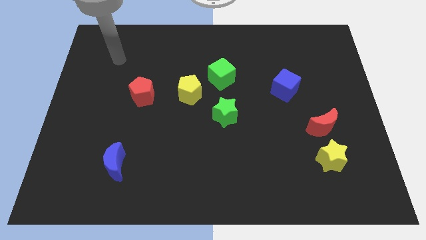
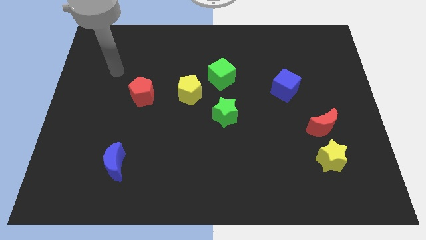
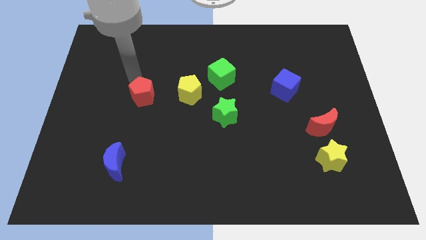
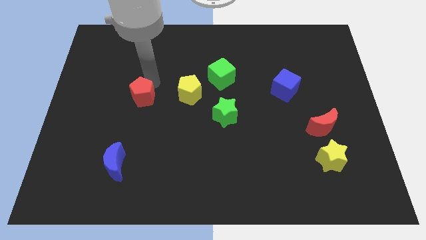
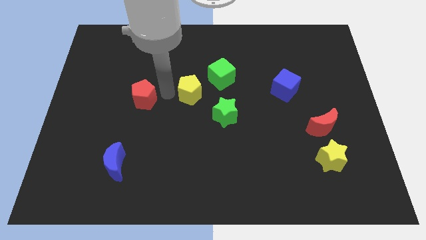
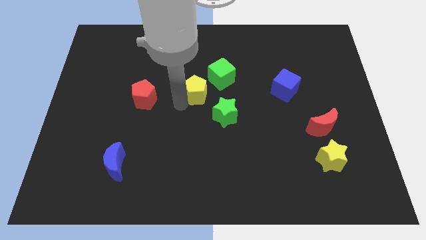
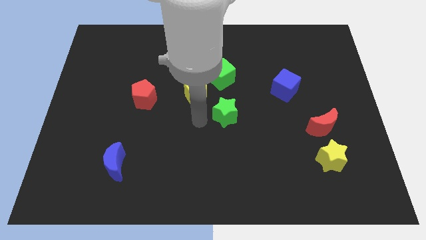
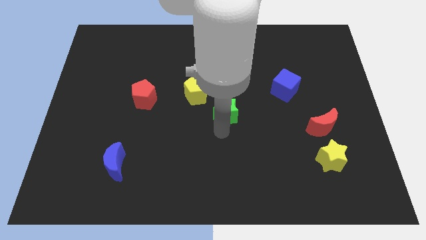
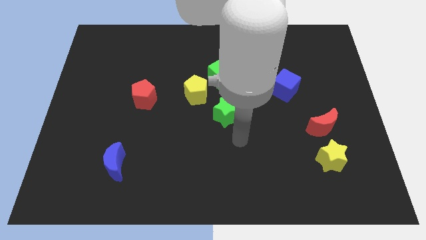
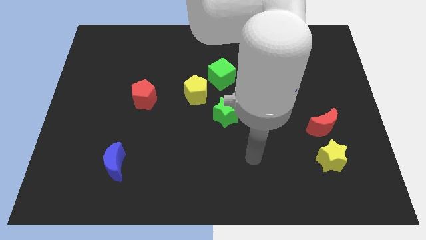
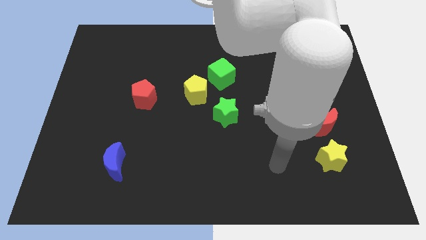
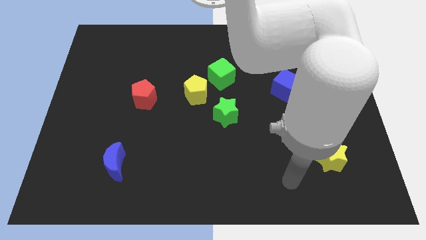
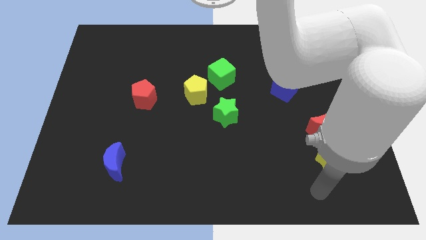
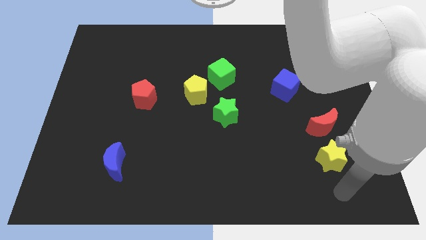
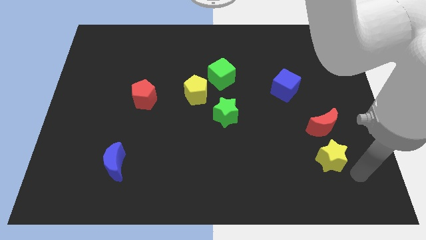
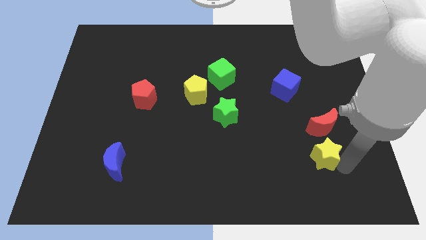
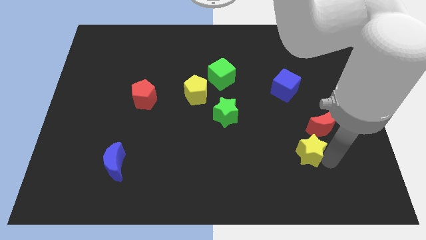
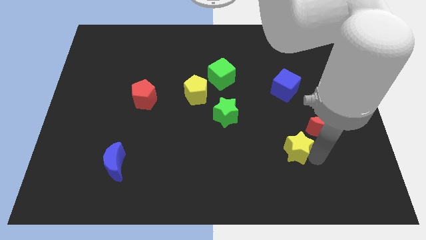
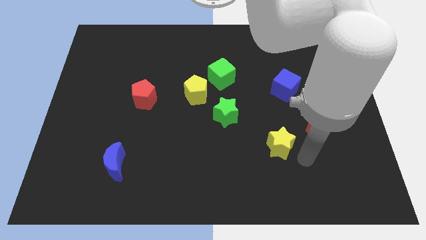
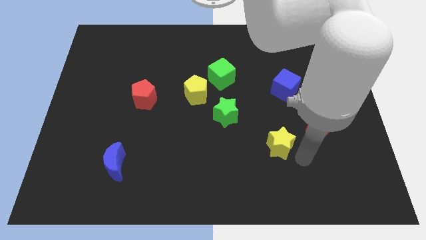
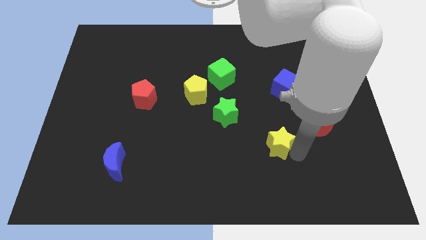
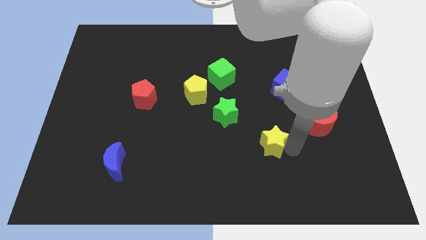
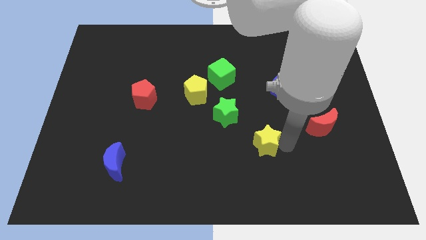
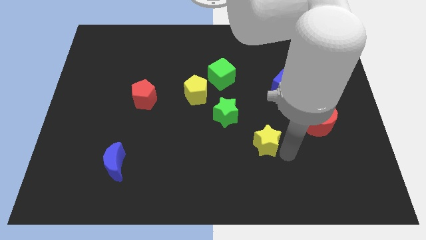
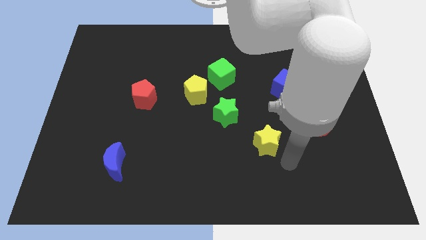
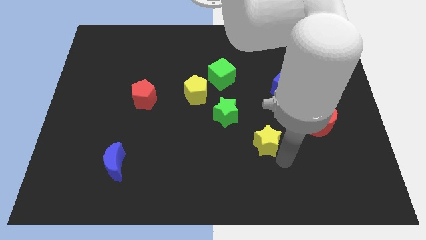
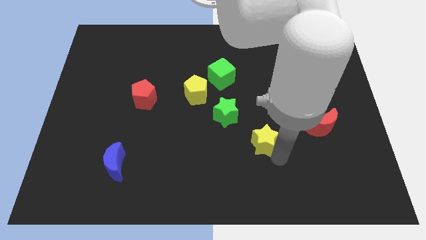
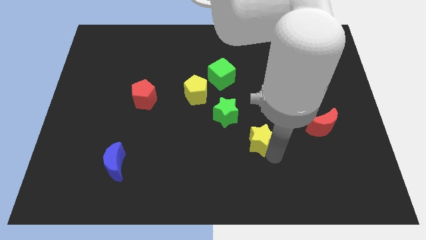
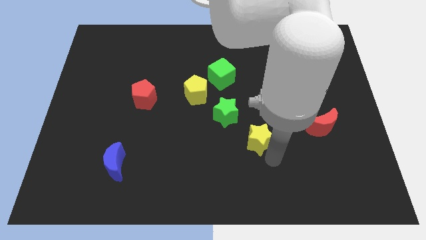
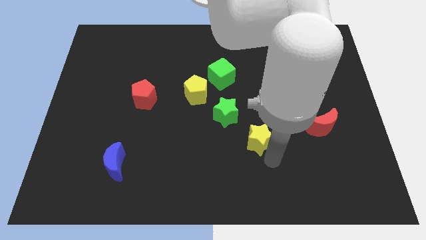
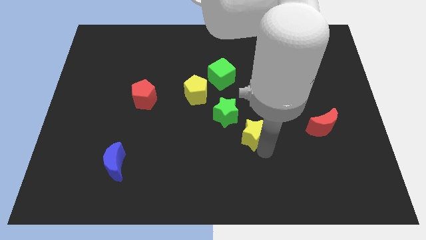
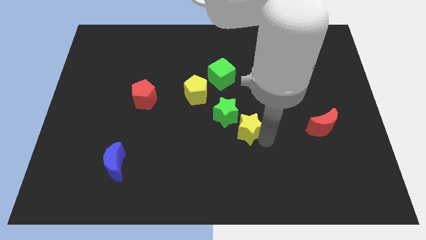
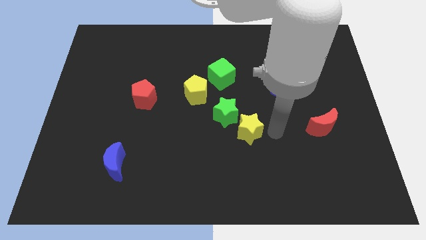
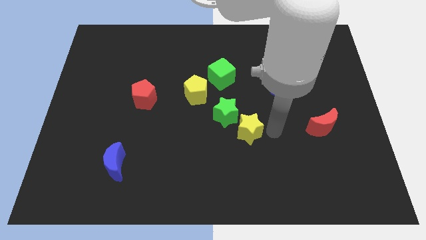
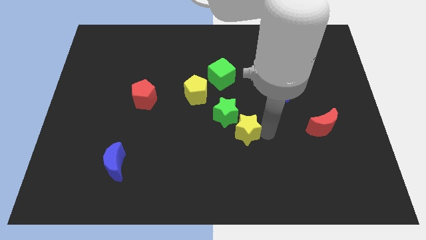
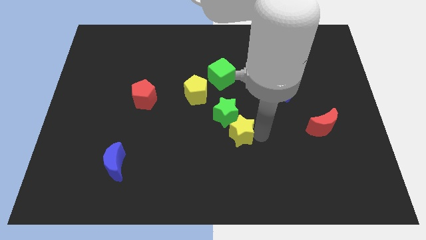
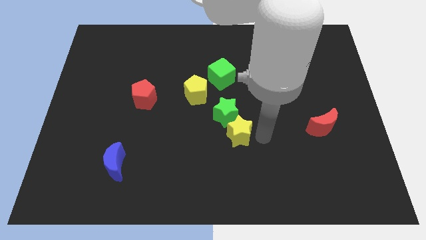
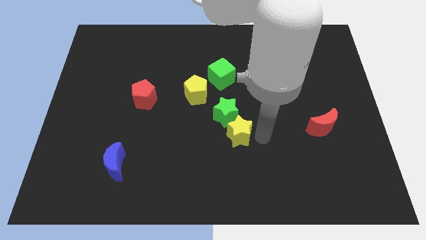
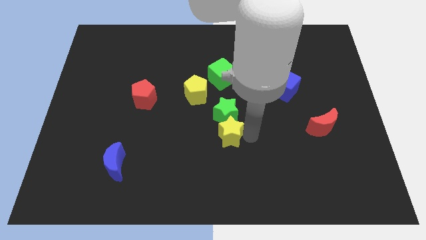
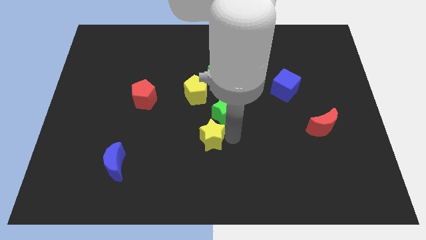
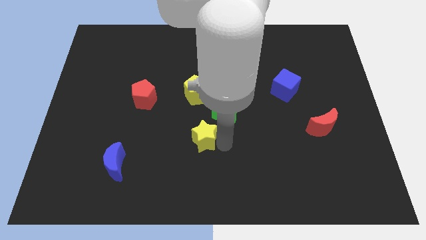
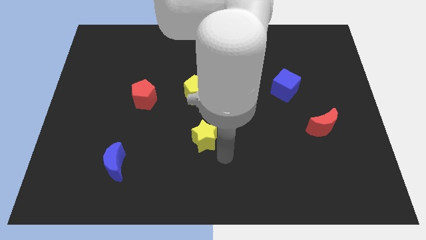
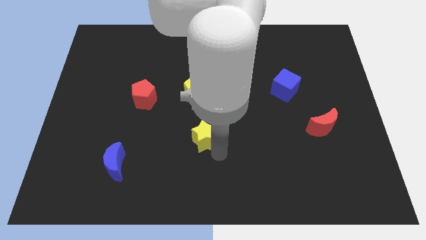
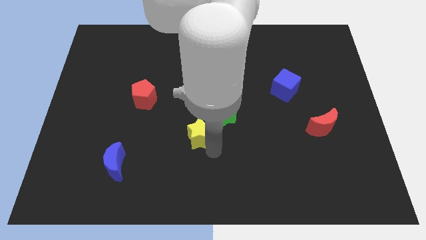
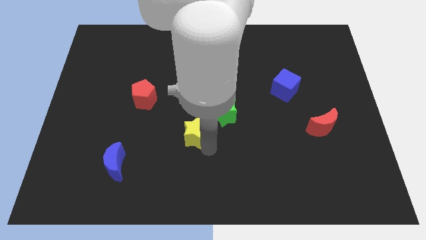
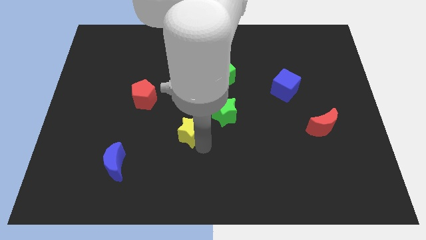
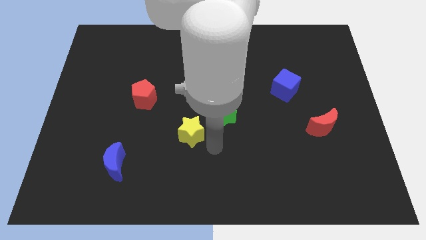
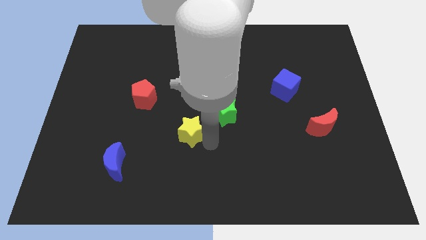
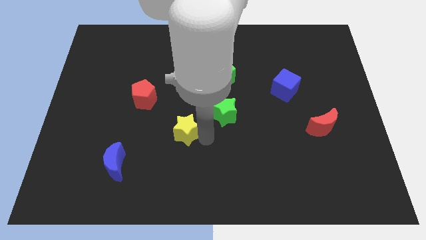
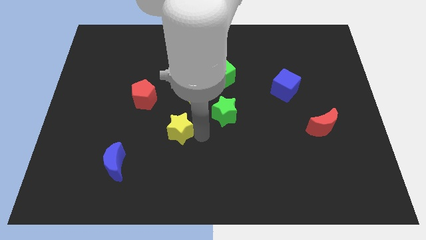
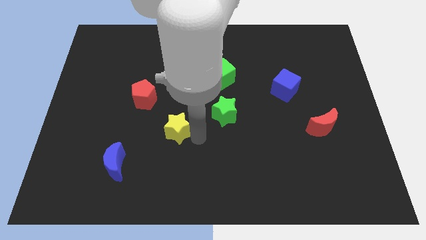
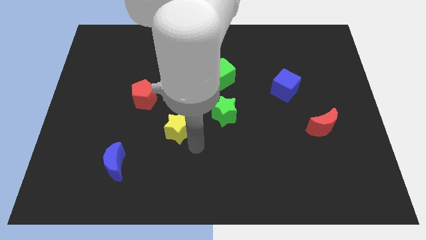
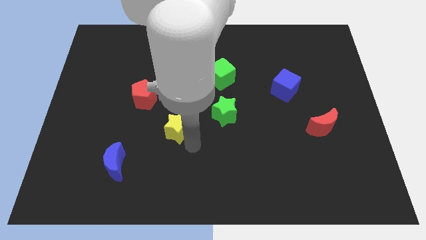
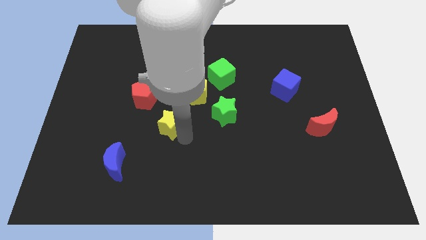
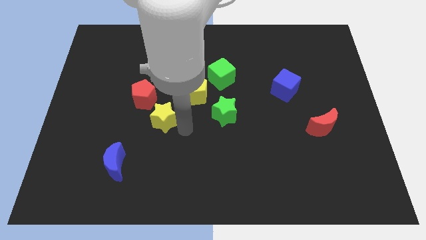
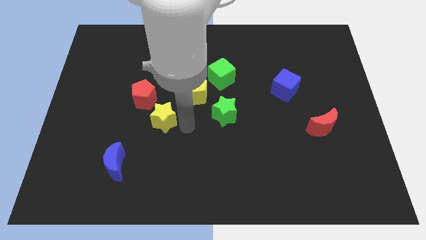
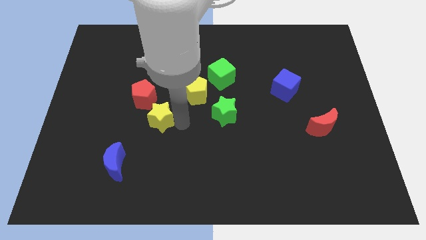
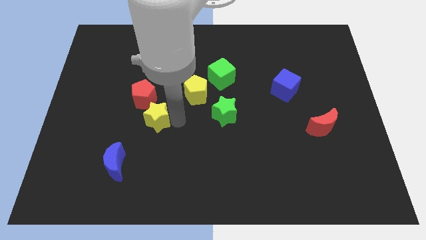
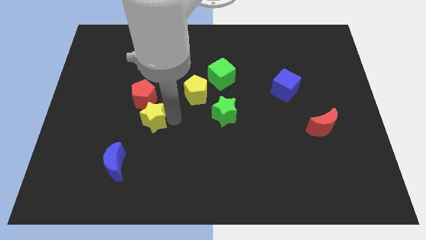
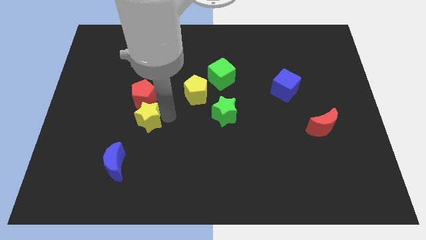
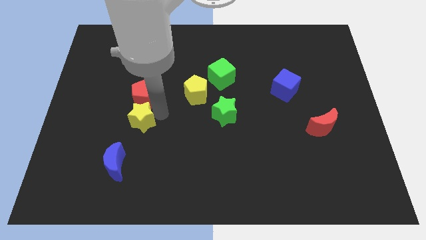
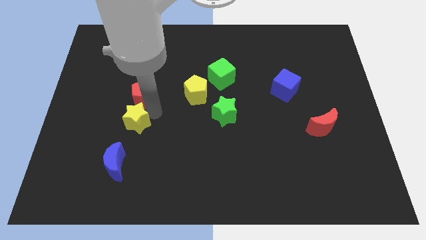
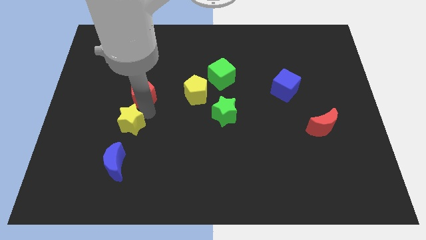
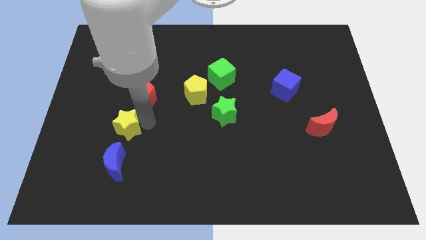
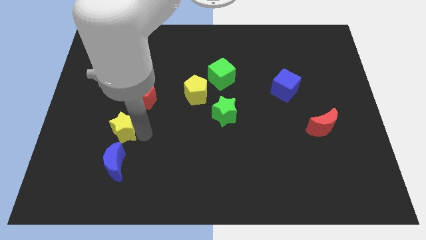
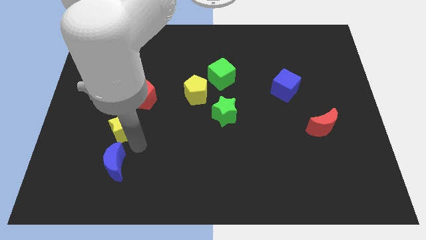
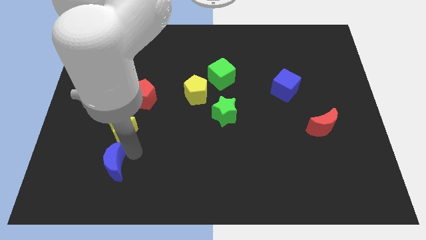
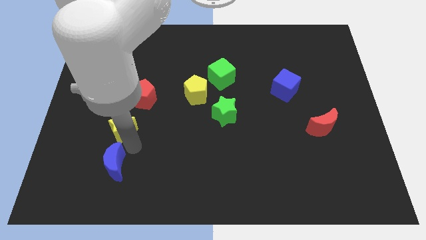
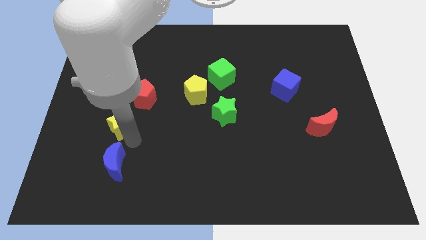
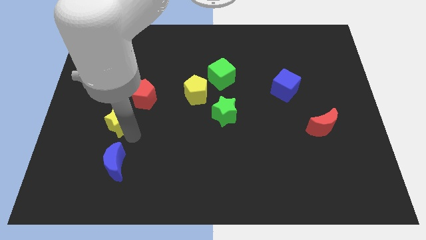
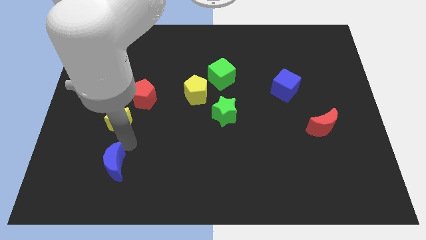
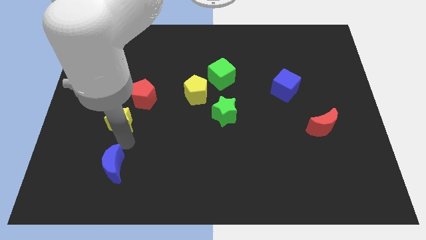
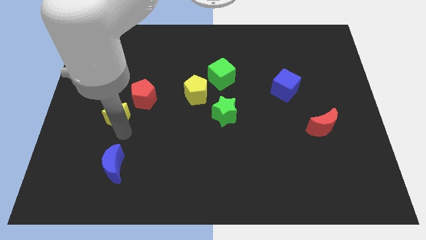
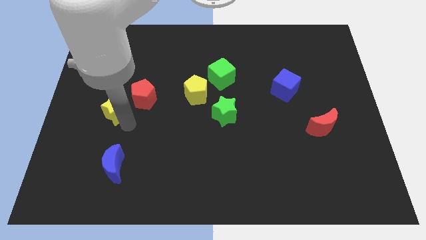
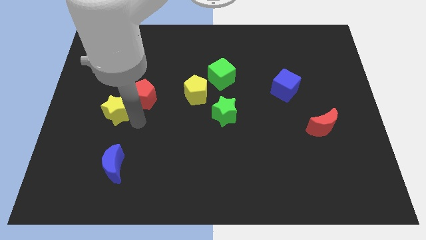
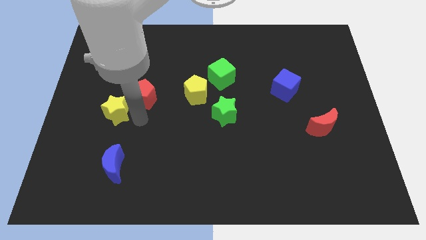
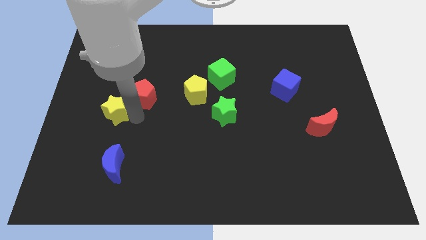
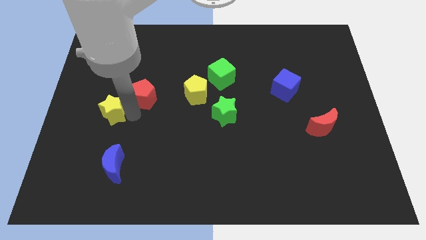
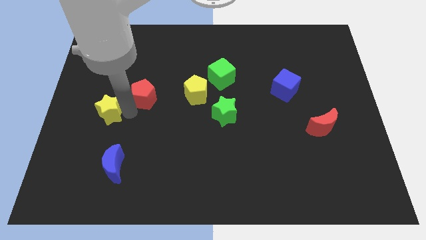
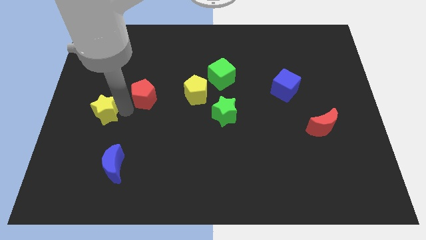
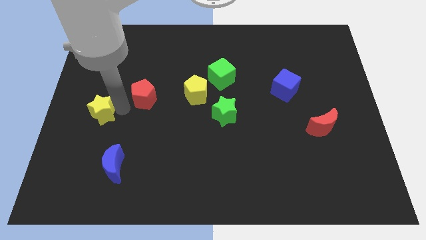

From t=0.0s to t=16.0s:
move the yellow star to the left side of the board
